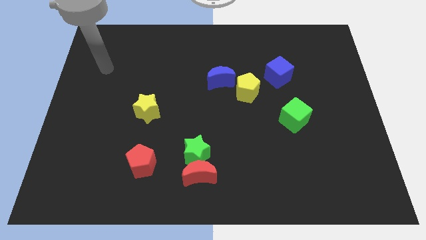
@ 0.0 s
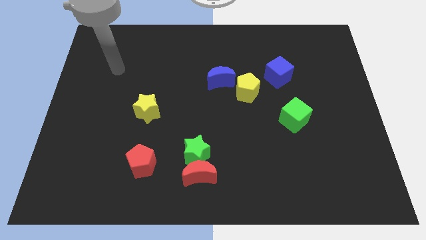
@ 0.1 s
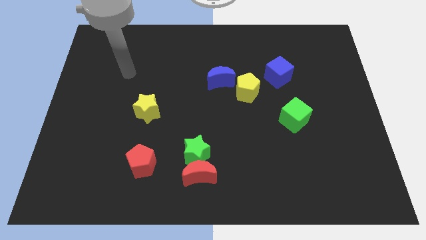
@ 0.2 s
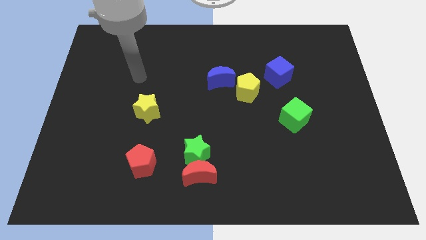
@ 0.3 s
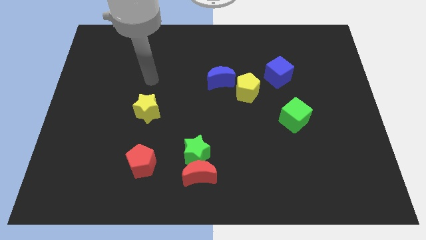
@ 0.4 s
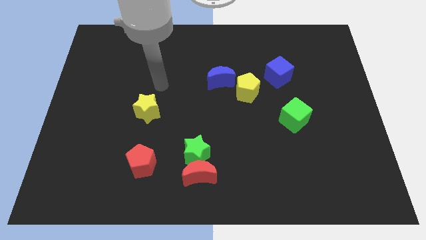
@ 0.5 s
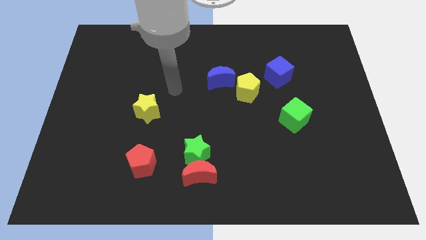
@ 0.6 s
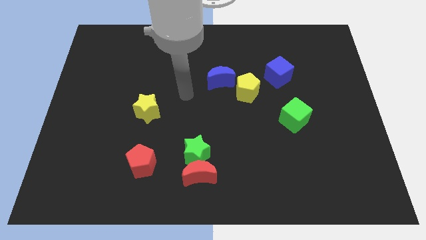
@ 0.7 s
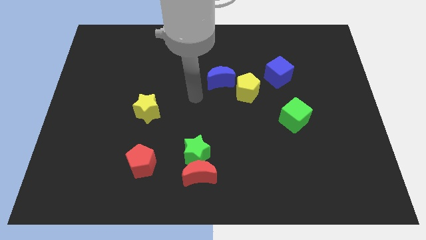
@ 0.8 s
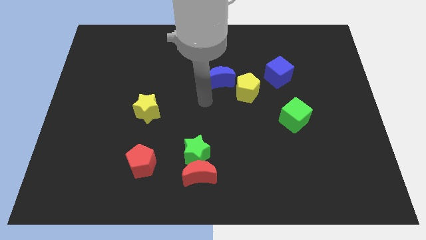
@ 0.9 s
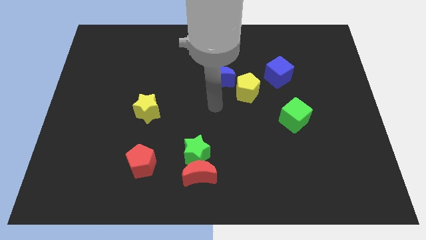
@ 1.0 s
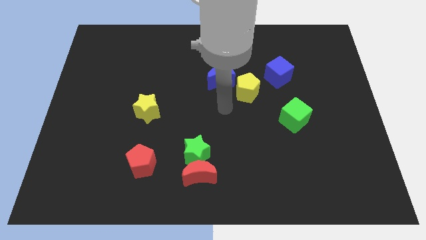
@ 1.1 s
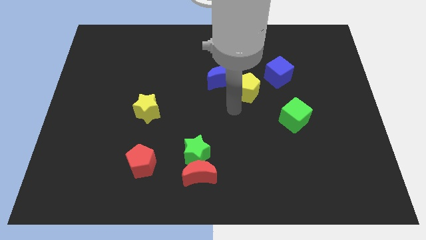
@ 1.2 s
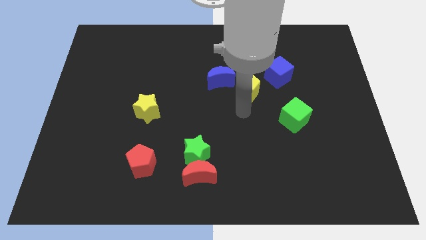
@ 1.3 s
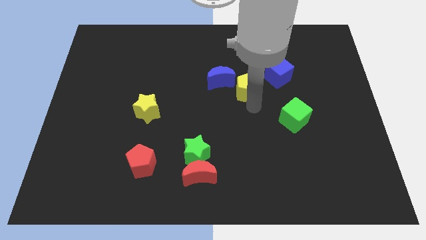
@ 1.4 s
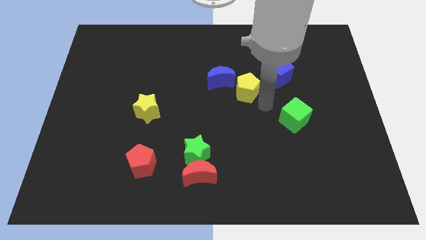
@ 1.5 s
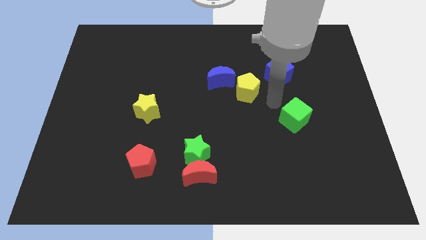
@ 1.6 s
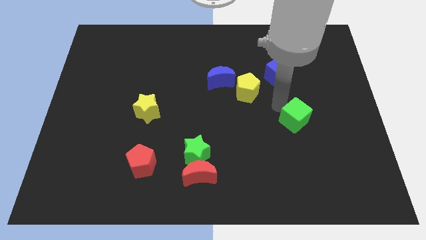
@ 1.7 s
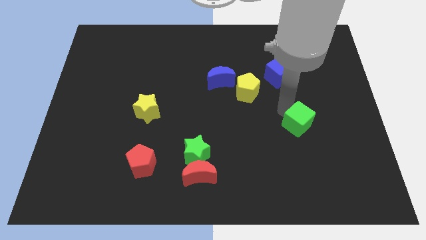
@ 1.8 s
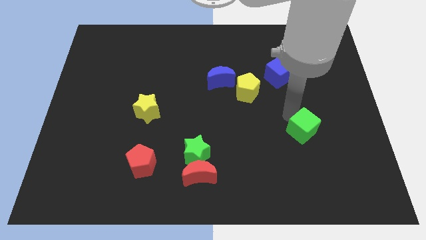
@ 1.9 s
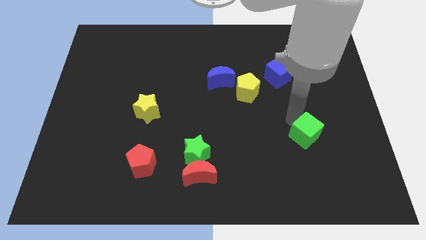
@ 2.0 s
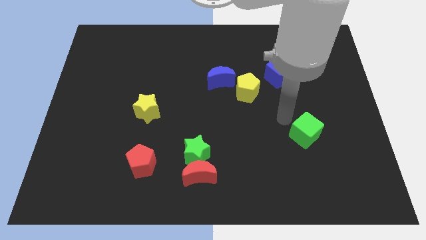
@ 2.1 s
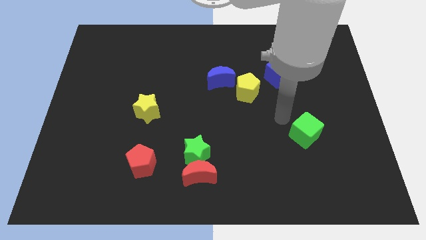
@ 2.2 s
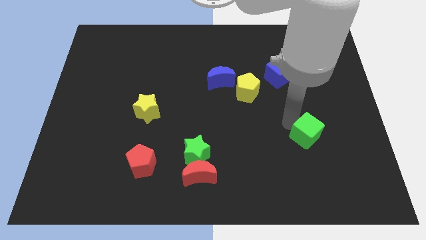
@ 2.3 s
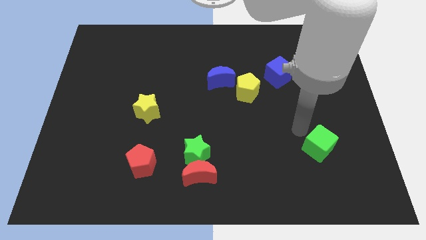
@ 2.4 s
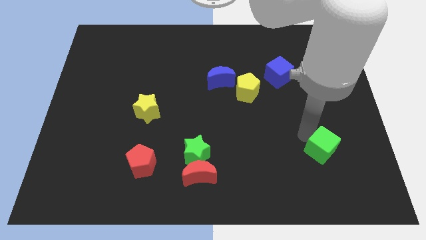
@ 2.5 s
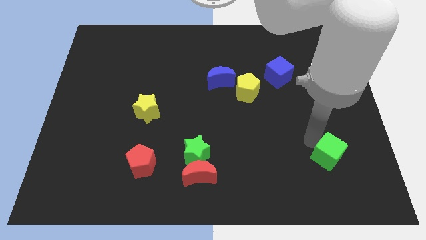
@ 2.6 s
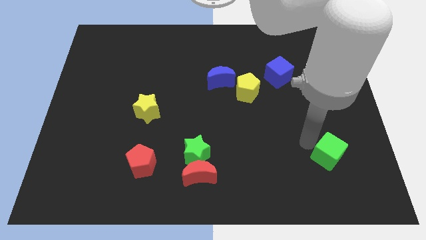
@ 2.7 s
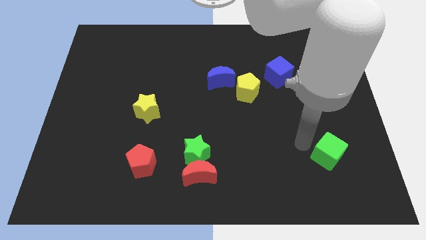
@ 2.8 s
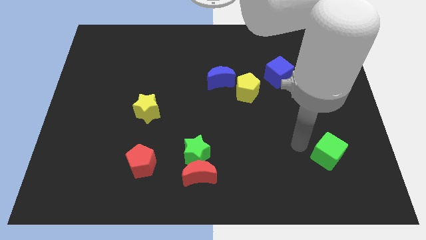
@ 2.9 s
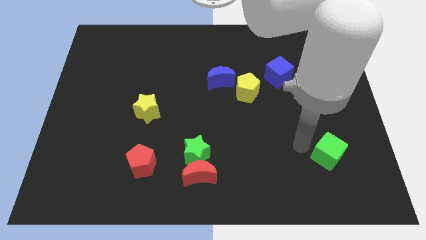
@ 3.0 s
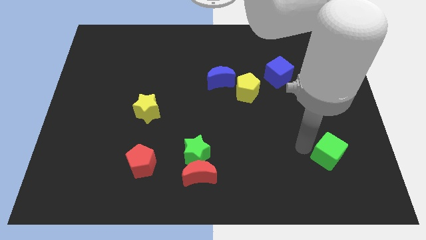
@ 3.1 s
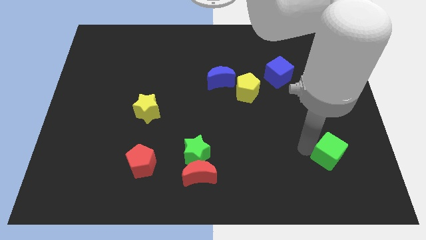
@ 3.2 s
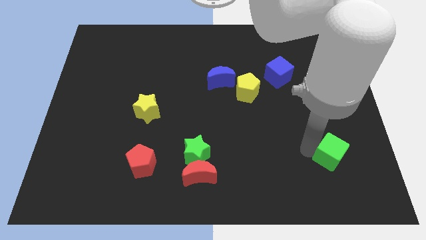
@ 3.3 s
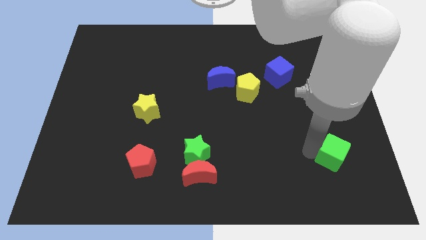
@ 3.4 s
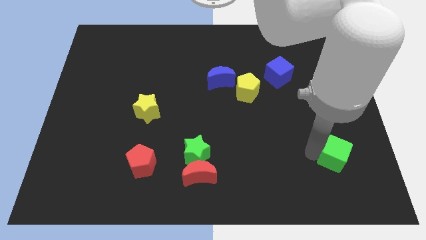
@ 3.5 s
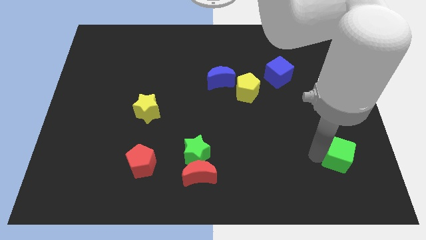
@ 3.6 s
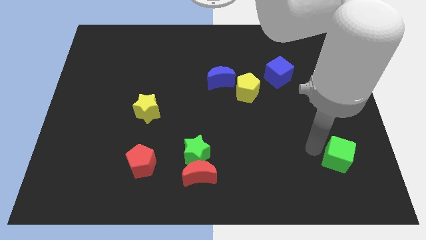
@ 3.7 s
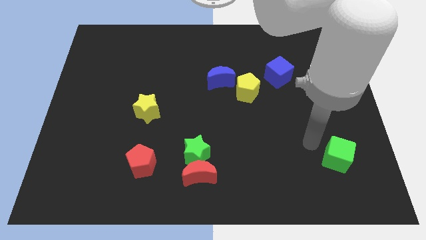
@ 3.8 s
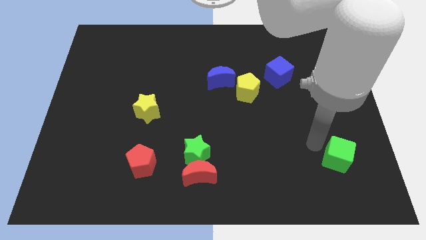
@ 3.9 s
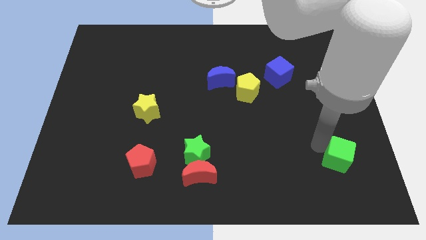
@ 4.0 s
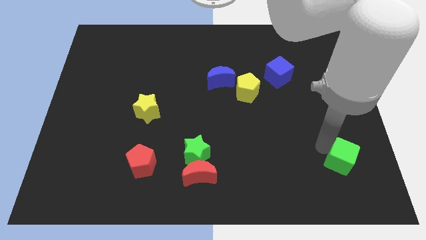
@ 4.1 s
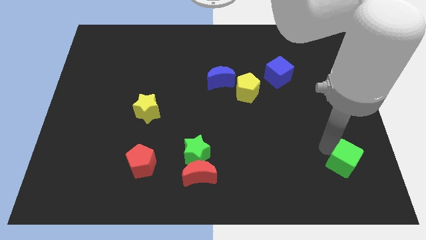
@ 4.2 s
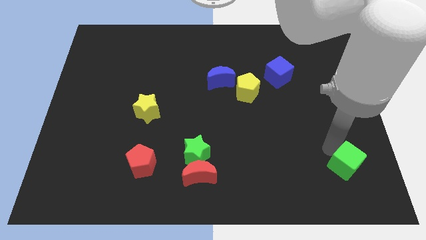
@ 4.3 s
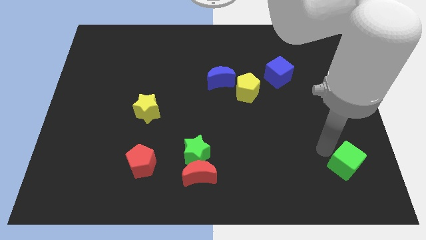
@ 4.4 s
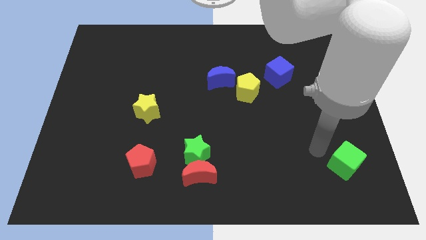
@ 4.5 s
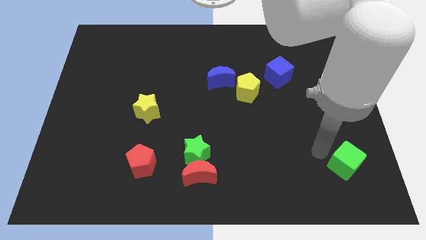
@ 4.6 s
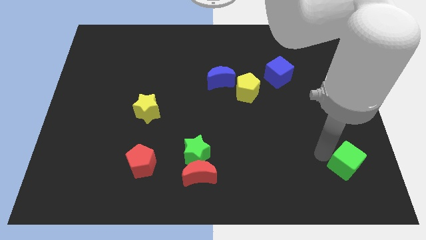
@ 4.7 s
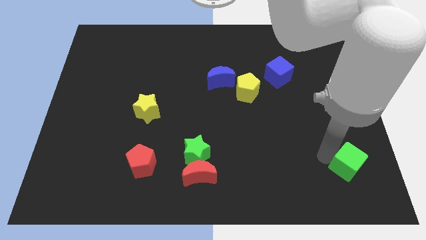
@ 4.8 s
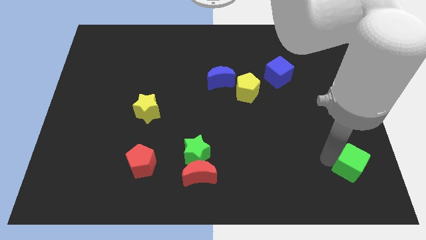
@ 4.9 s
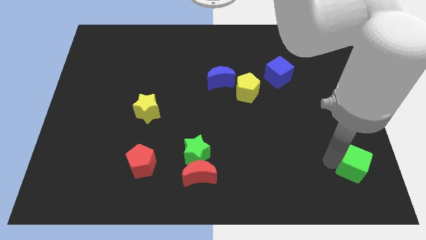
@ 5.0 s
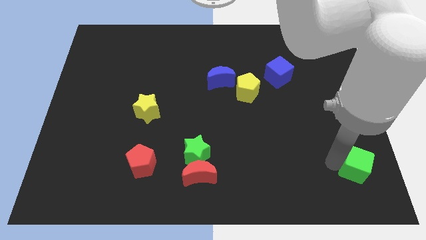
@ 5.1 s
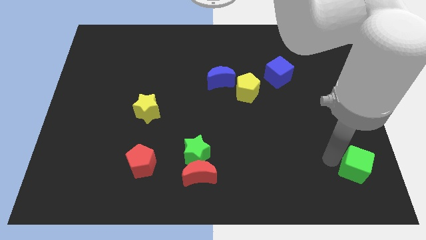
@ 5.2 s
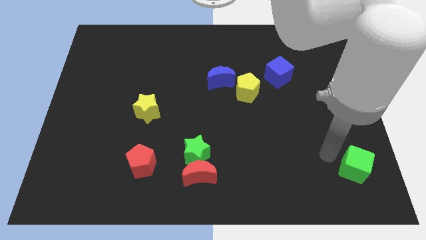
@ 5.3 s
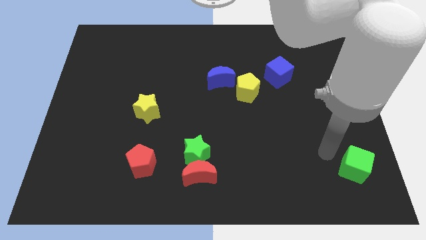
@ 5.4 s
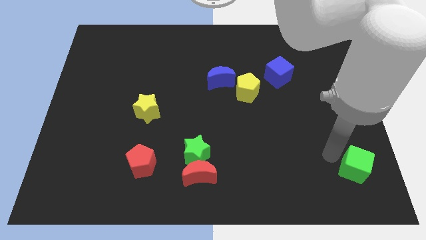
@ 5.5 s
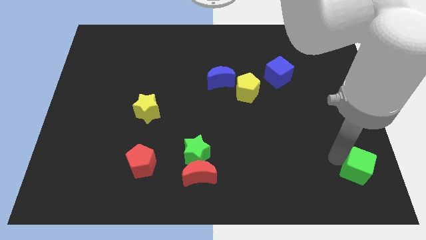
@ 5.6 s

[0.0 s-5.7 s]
push the green cube to the bottom right of the board

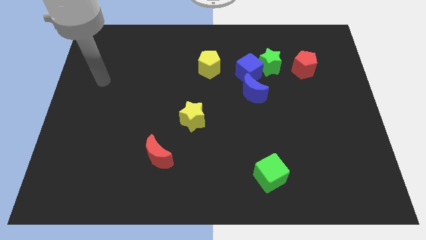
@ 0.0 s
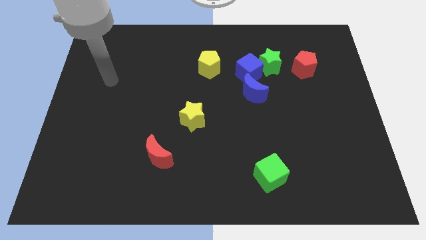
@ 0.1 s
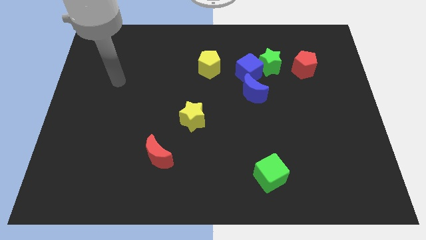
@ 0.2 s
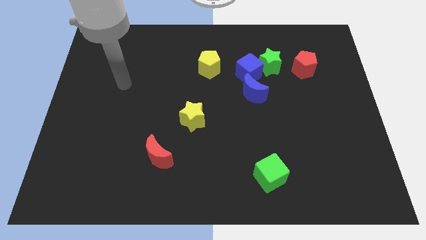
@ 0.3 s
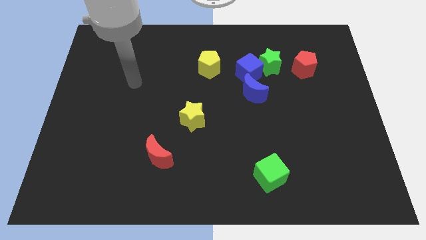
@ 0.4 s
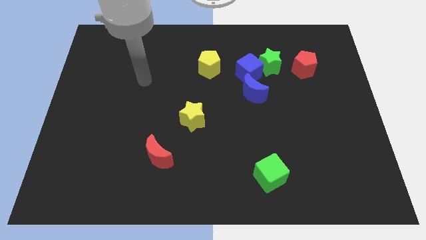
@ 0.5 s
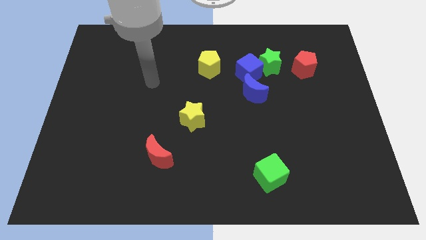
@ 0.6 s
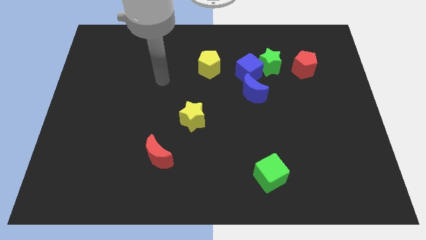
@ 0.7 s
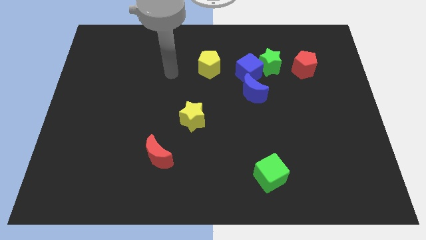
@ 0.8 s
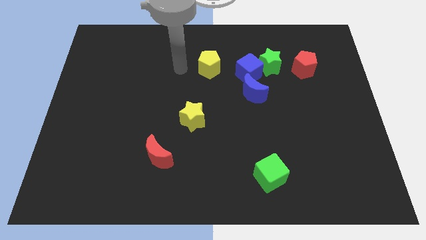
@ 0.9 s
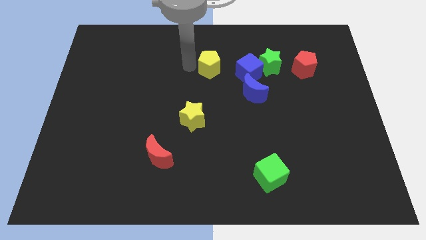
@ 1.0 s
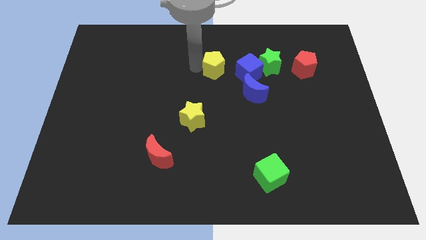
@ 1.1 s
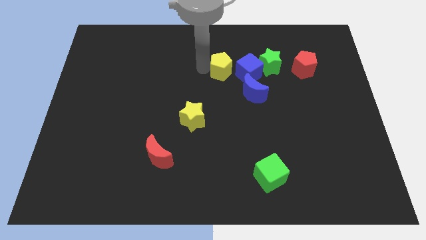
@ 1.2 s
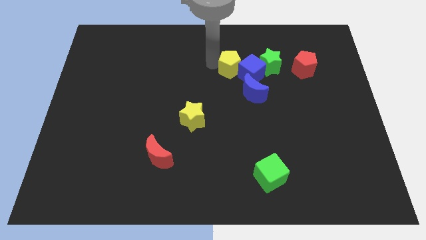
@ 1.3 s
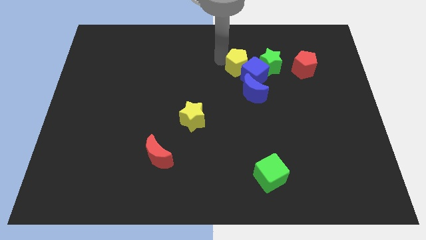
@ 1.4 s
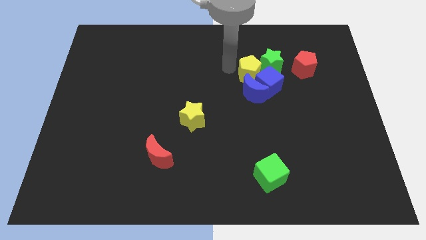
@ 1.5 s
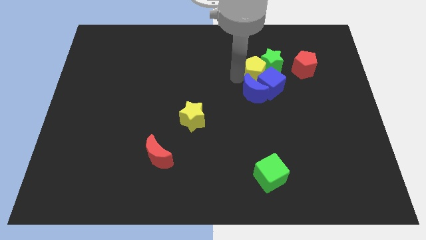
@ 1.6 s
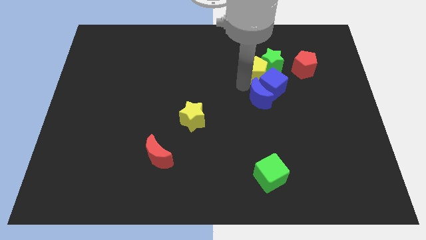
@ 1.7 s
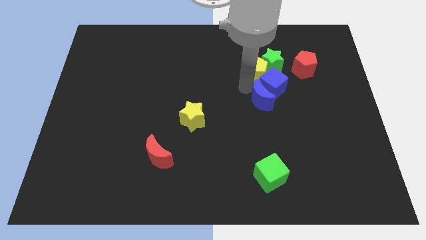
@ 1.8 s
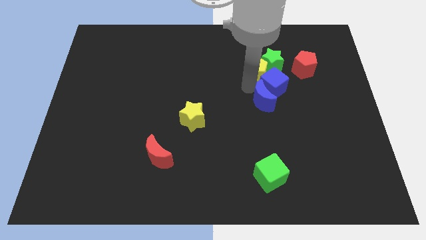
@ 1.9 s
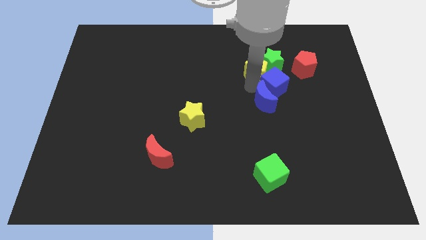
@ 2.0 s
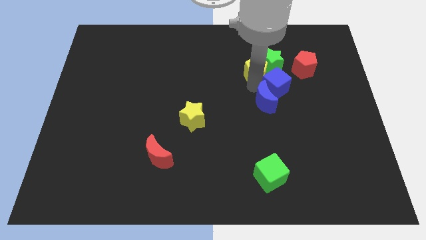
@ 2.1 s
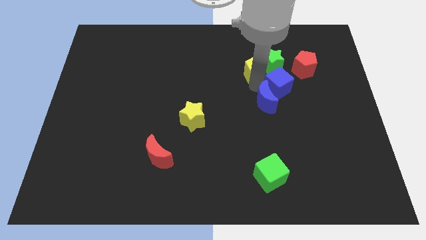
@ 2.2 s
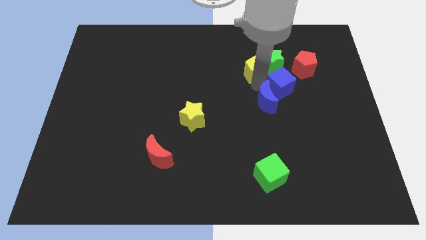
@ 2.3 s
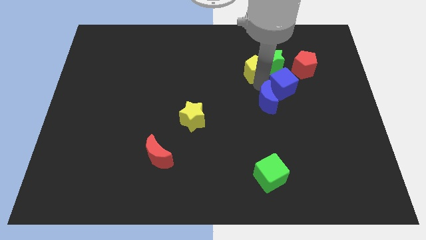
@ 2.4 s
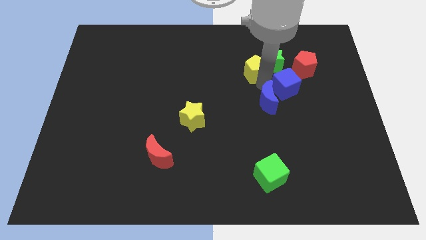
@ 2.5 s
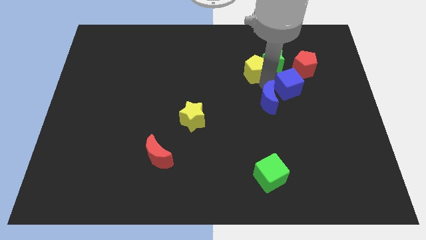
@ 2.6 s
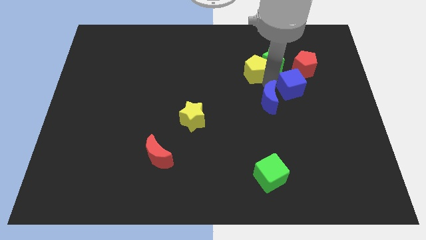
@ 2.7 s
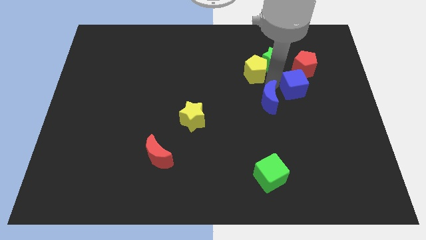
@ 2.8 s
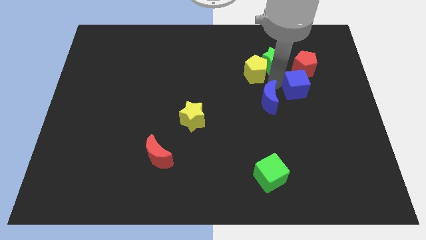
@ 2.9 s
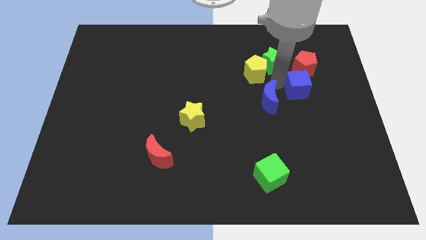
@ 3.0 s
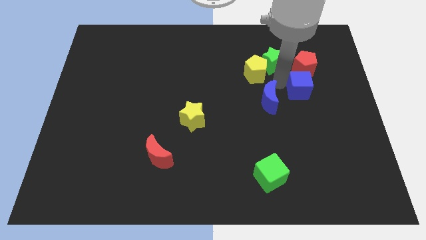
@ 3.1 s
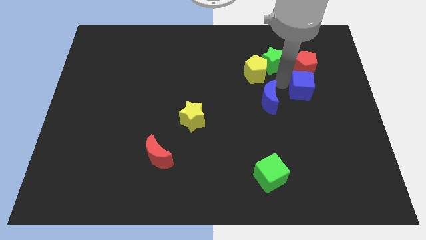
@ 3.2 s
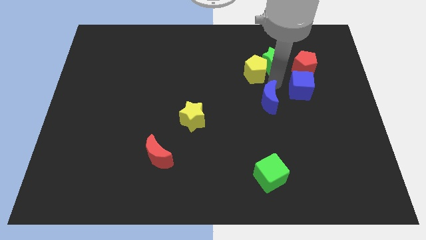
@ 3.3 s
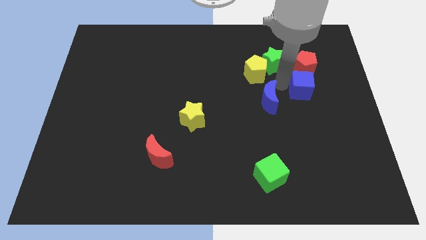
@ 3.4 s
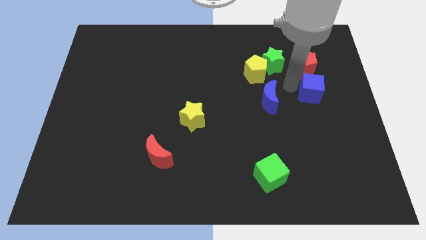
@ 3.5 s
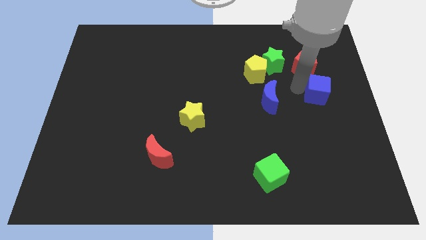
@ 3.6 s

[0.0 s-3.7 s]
move the blue cube to the center right
